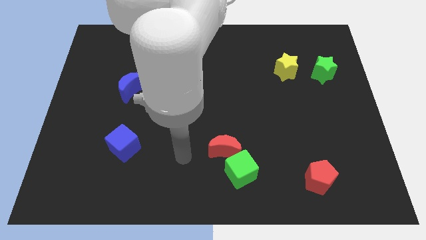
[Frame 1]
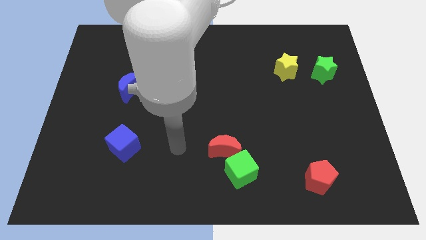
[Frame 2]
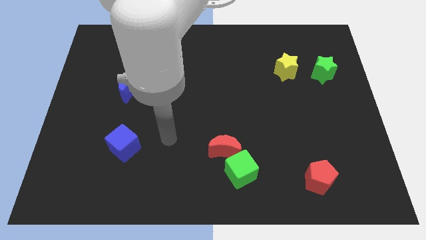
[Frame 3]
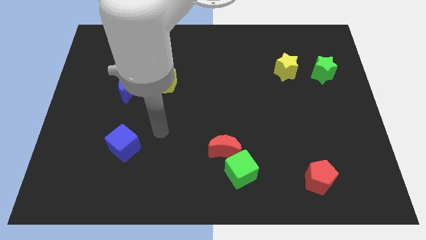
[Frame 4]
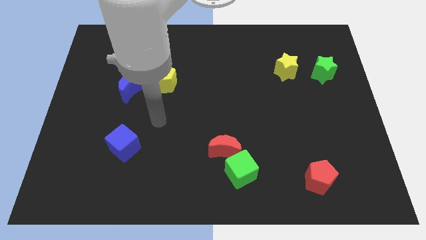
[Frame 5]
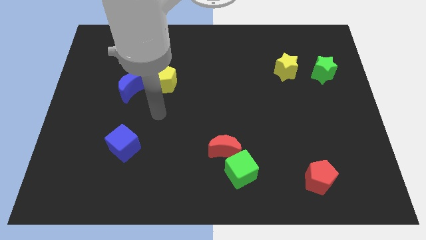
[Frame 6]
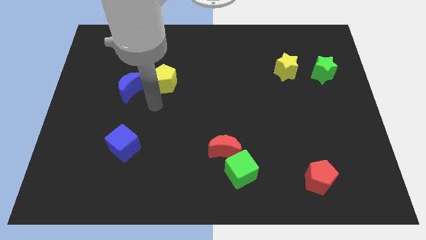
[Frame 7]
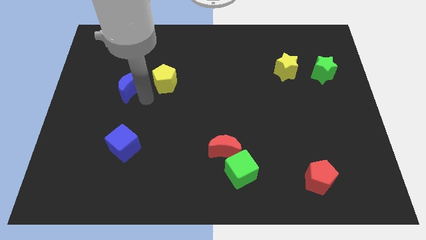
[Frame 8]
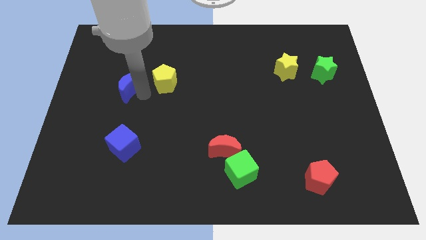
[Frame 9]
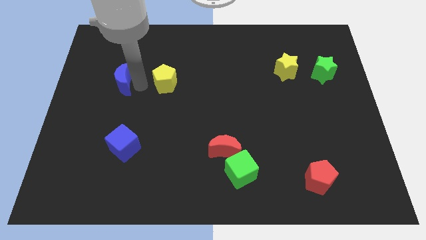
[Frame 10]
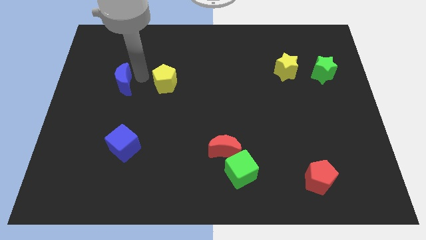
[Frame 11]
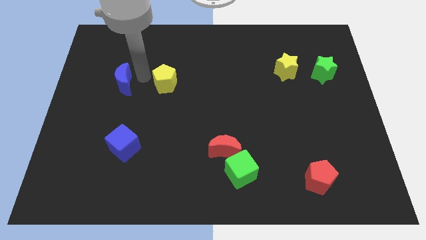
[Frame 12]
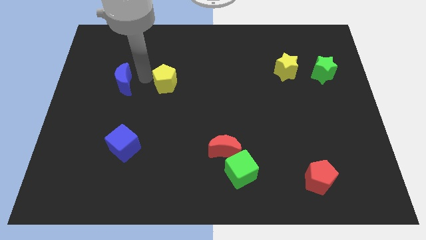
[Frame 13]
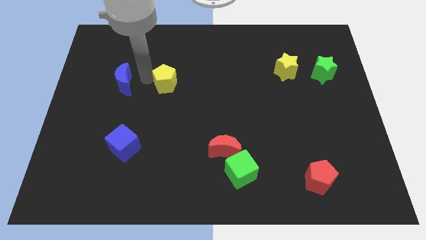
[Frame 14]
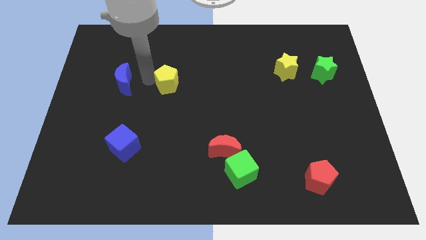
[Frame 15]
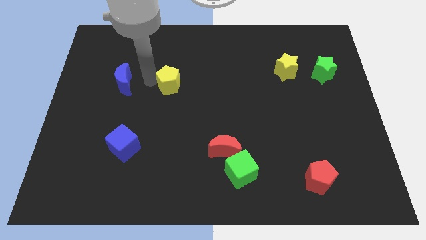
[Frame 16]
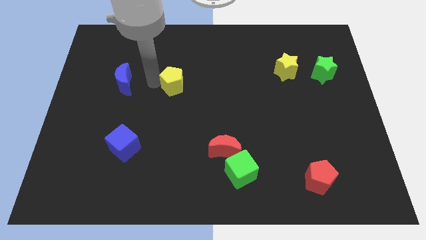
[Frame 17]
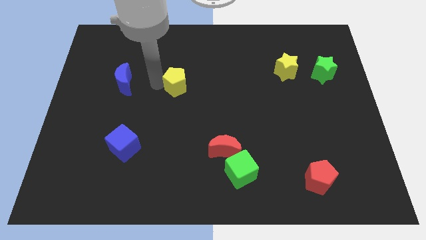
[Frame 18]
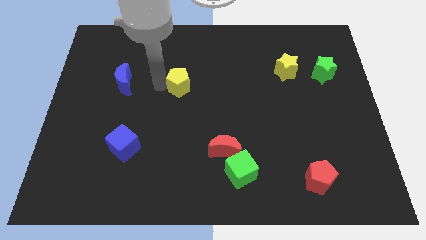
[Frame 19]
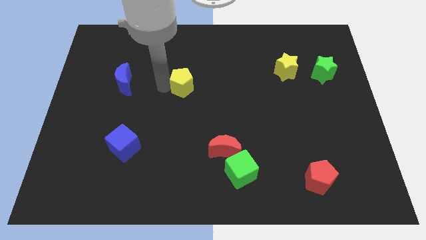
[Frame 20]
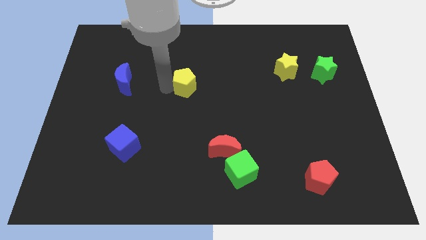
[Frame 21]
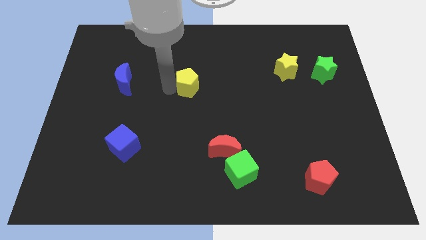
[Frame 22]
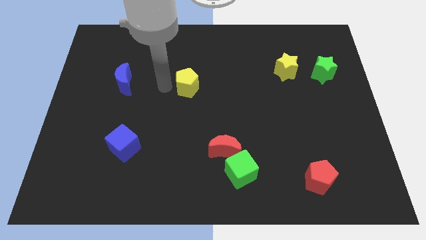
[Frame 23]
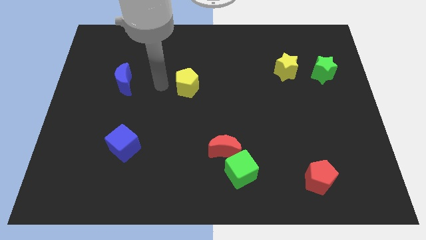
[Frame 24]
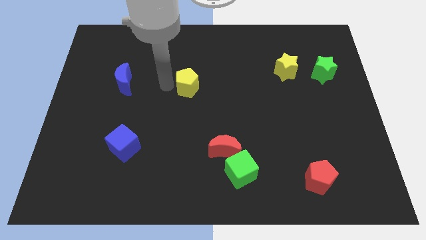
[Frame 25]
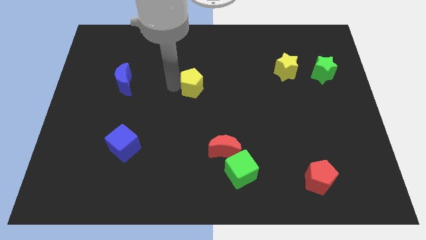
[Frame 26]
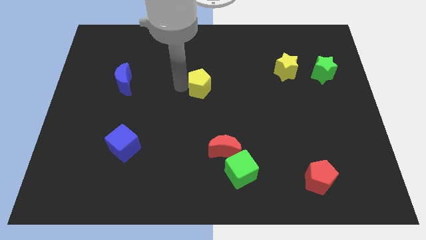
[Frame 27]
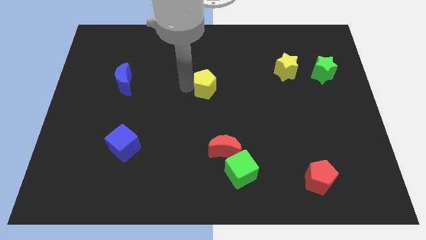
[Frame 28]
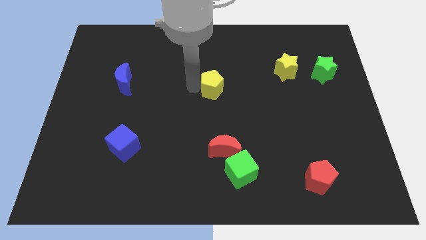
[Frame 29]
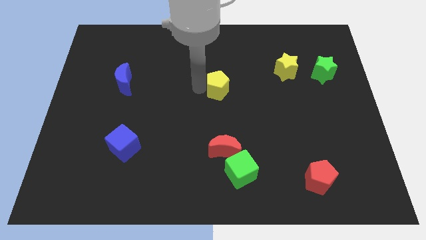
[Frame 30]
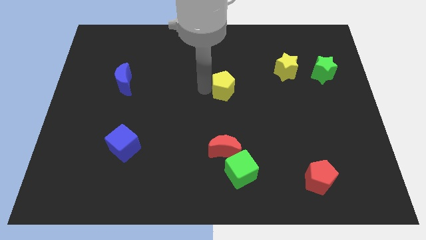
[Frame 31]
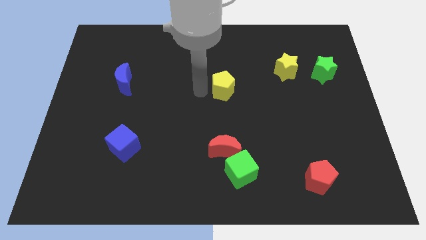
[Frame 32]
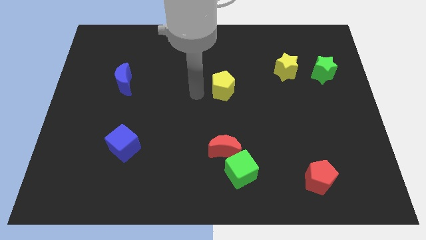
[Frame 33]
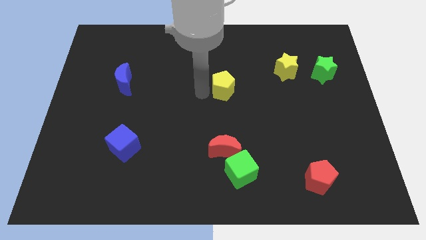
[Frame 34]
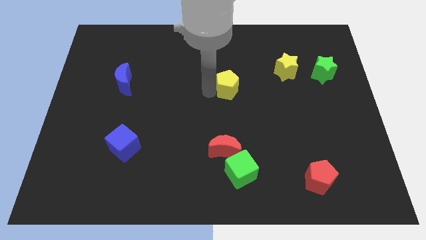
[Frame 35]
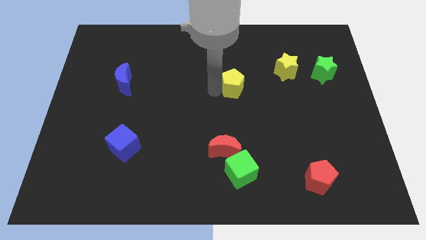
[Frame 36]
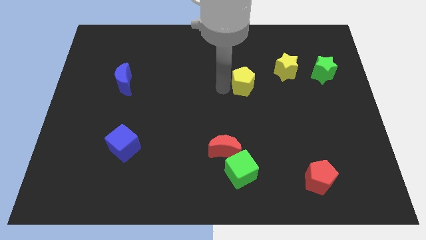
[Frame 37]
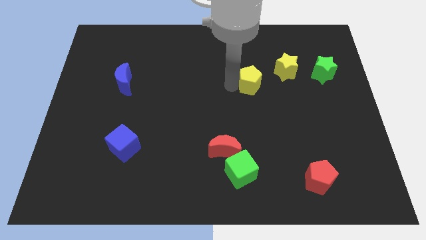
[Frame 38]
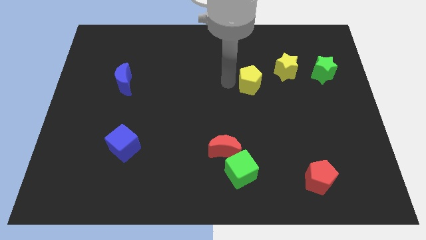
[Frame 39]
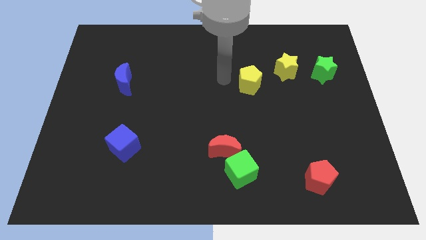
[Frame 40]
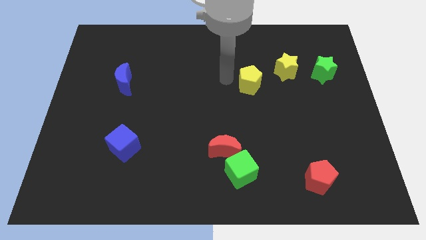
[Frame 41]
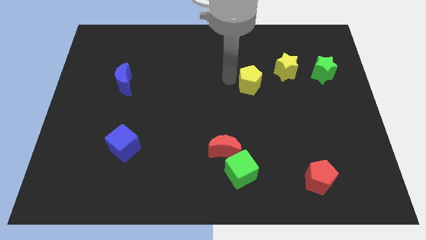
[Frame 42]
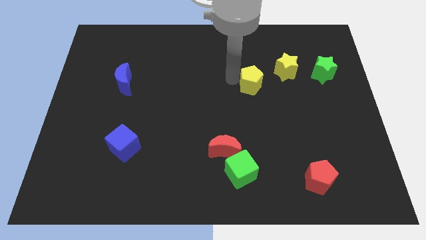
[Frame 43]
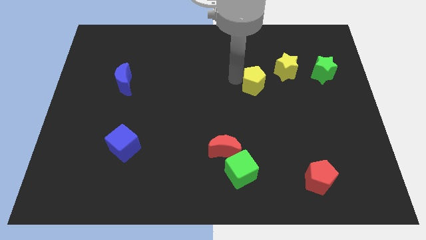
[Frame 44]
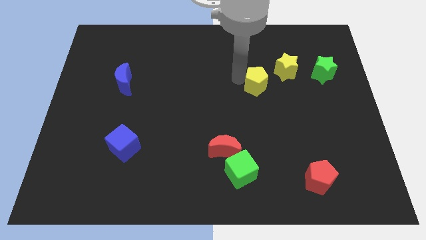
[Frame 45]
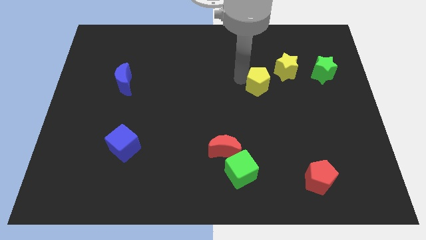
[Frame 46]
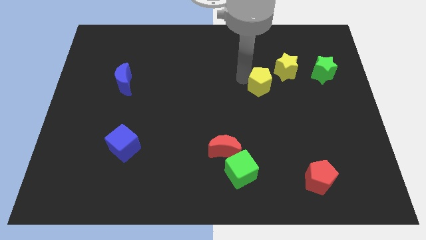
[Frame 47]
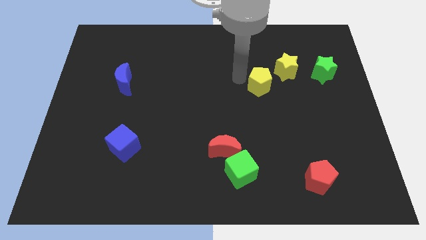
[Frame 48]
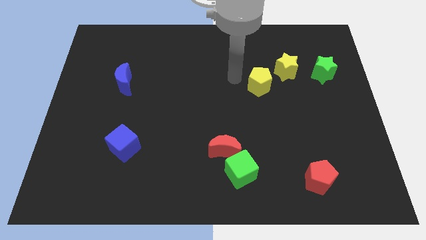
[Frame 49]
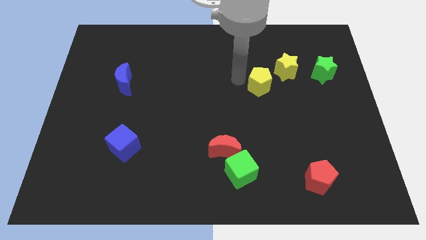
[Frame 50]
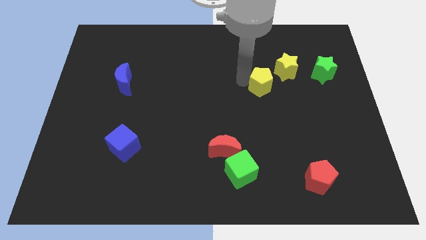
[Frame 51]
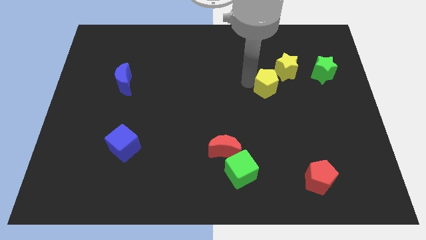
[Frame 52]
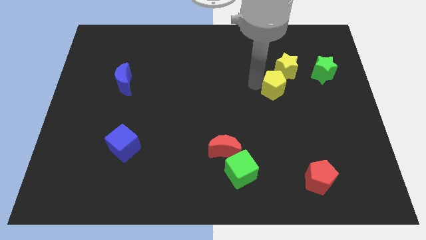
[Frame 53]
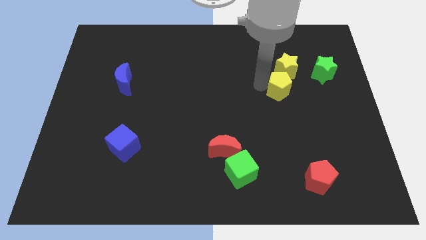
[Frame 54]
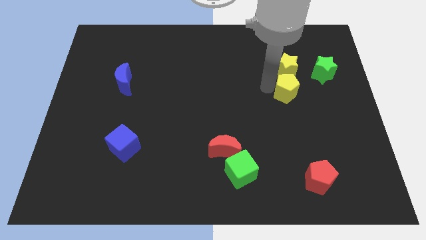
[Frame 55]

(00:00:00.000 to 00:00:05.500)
push the yellow pentagon to the bottom left side of the green star

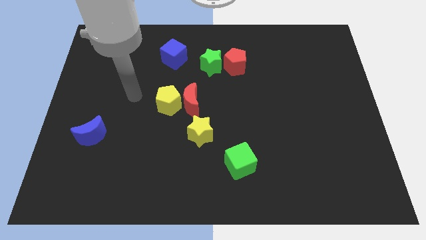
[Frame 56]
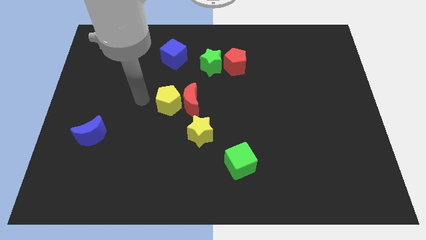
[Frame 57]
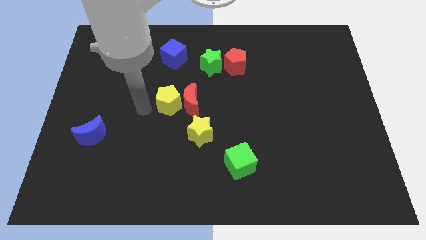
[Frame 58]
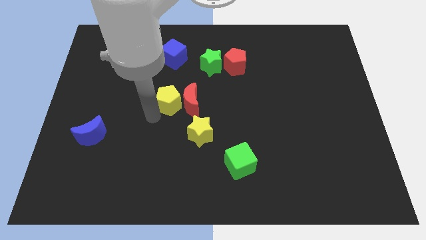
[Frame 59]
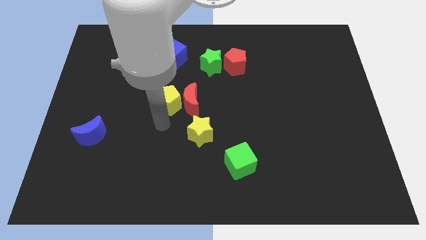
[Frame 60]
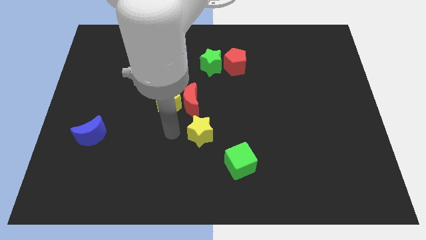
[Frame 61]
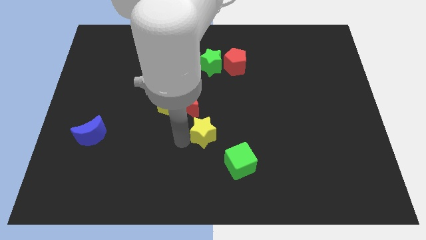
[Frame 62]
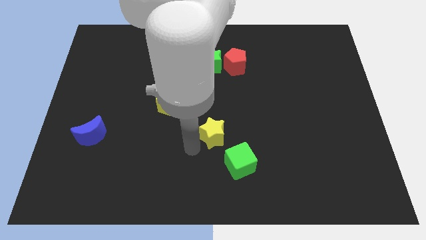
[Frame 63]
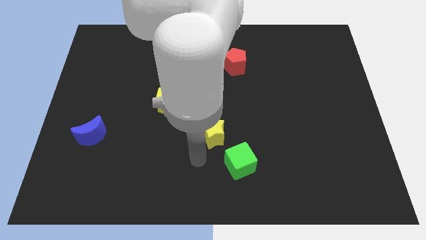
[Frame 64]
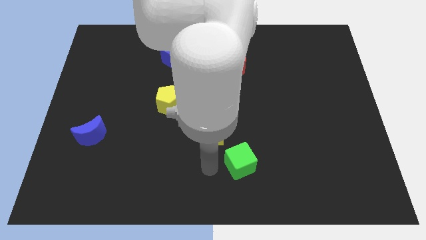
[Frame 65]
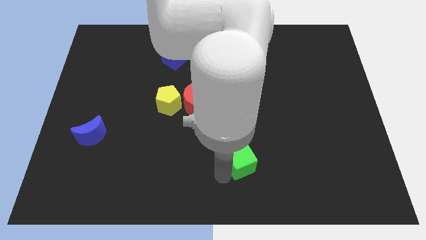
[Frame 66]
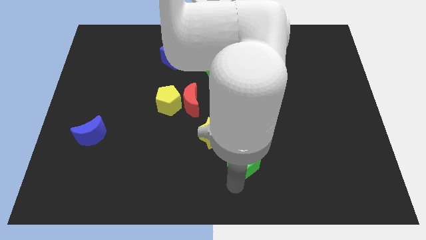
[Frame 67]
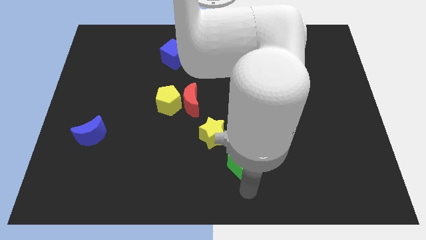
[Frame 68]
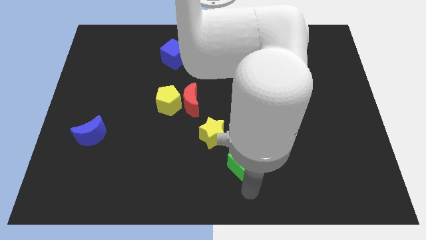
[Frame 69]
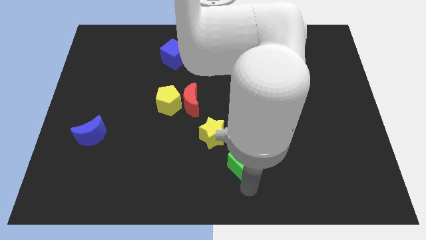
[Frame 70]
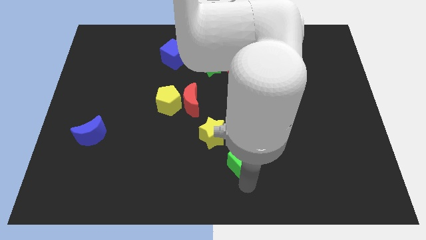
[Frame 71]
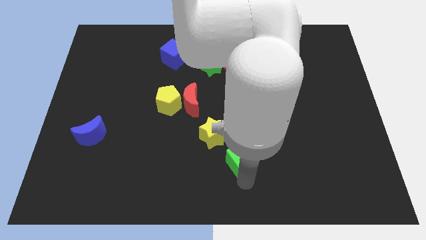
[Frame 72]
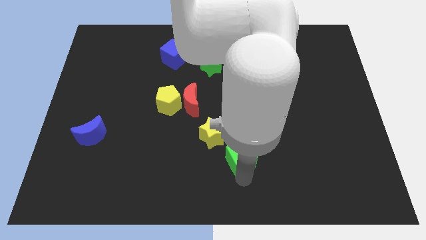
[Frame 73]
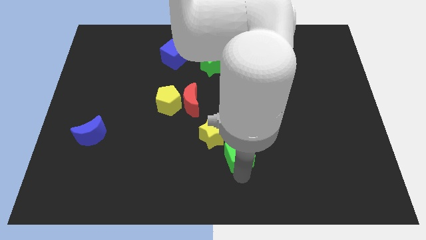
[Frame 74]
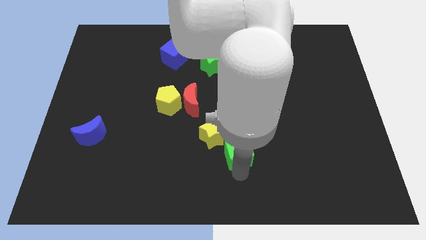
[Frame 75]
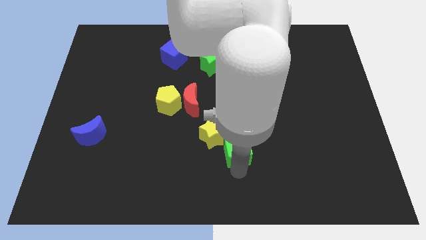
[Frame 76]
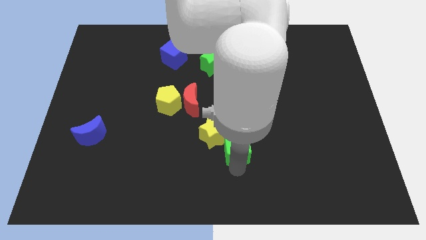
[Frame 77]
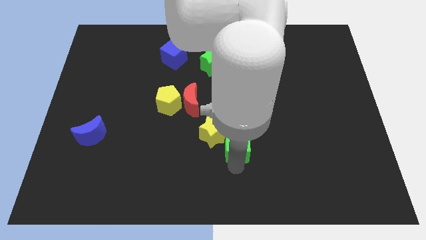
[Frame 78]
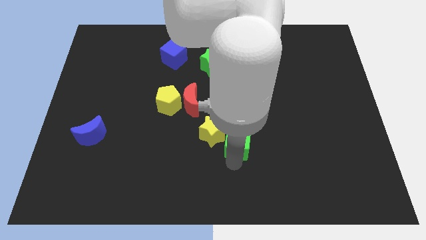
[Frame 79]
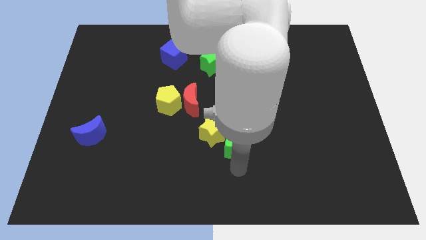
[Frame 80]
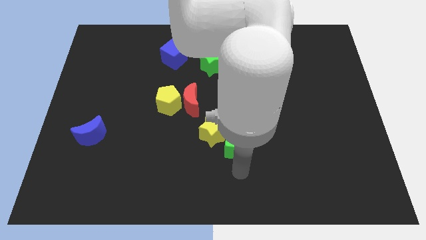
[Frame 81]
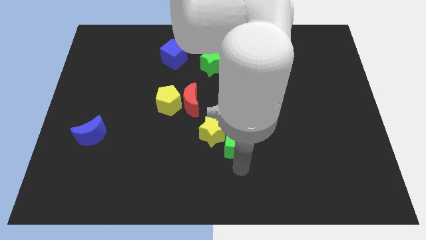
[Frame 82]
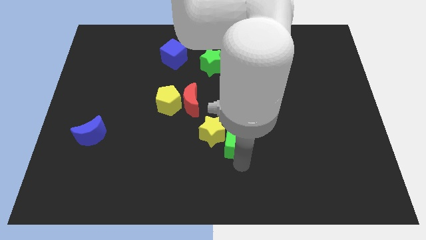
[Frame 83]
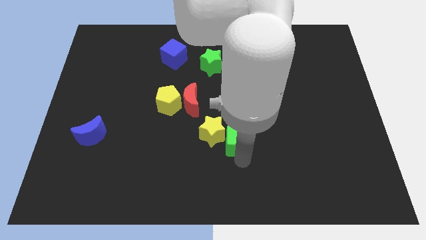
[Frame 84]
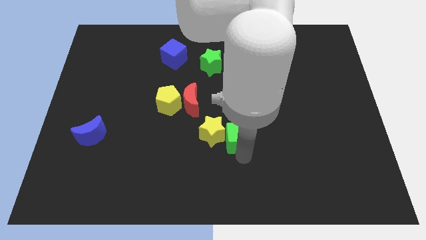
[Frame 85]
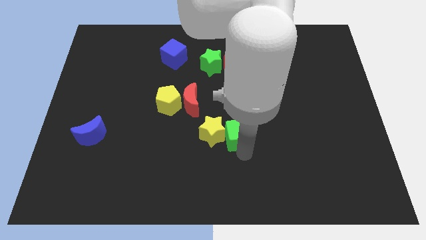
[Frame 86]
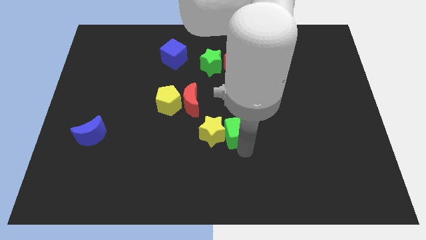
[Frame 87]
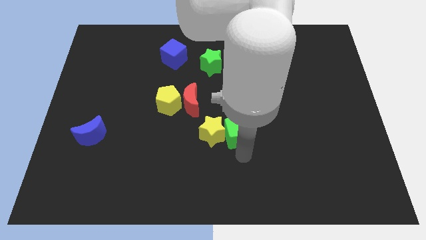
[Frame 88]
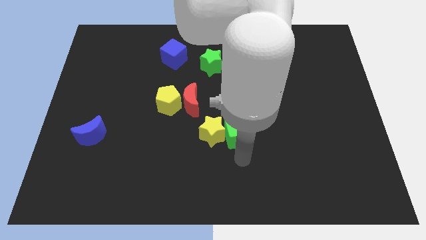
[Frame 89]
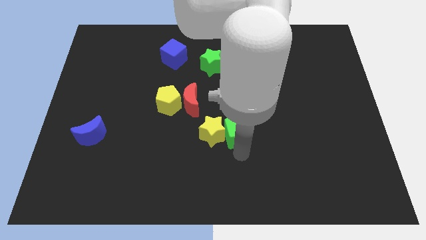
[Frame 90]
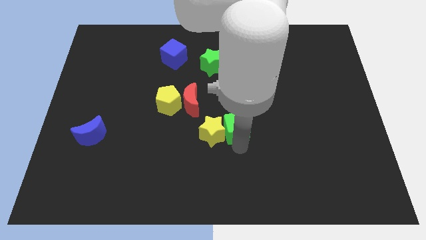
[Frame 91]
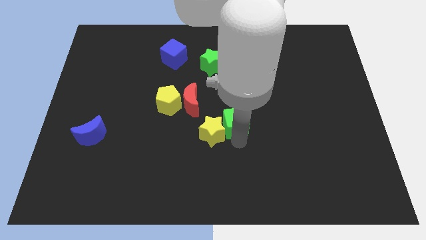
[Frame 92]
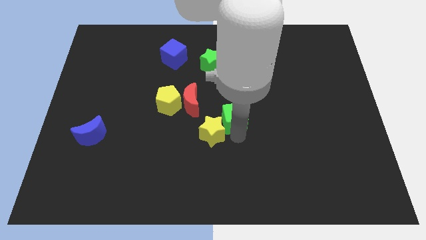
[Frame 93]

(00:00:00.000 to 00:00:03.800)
slide the green cube to the right of the red moon
